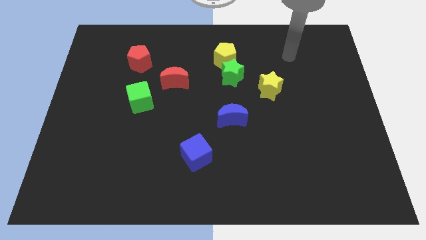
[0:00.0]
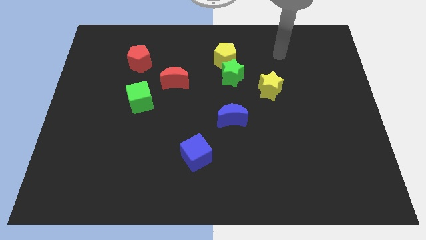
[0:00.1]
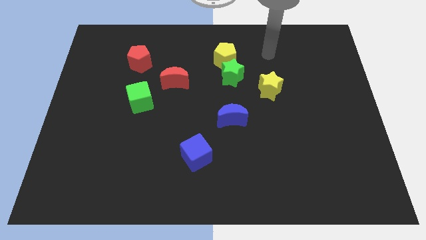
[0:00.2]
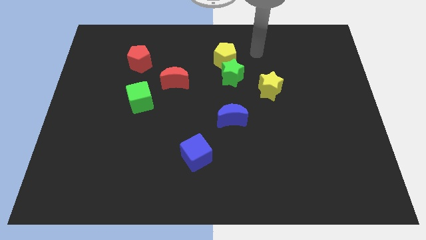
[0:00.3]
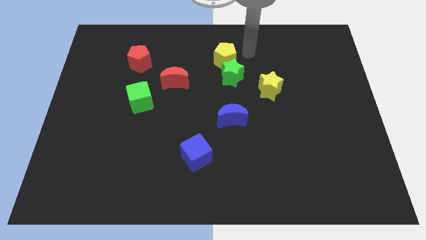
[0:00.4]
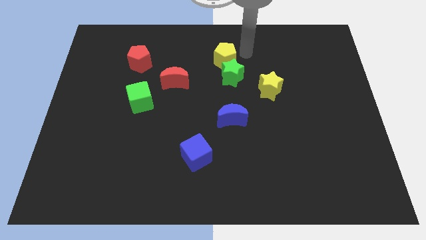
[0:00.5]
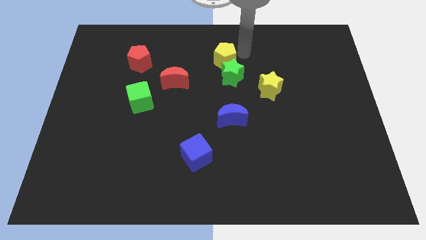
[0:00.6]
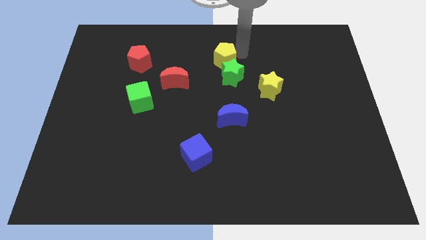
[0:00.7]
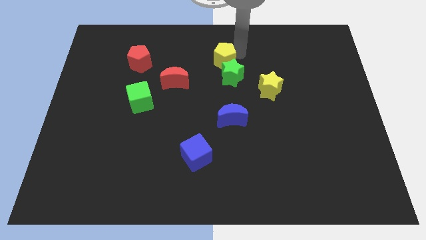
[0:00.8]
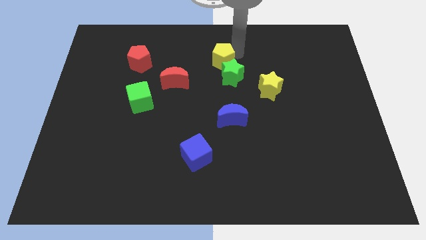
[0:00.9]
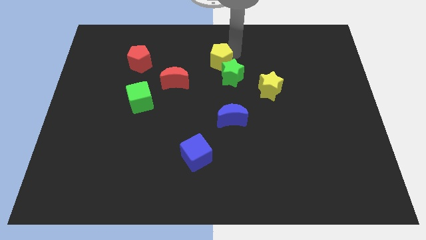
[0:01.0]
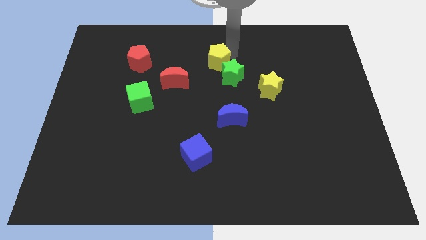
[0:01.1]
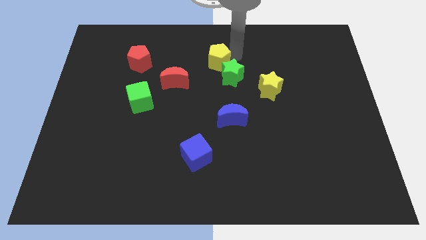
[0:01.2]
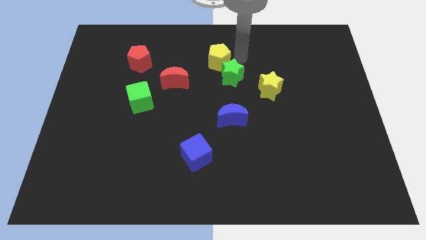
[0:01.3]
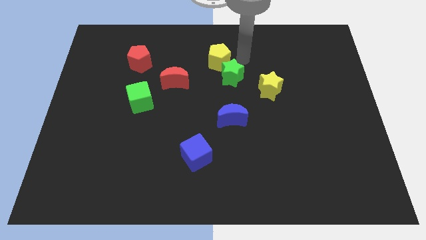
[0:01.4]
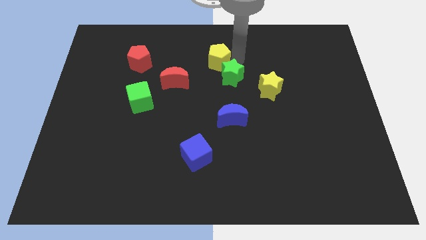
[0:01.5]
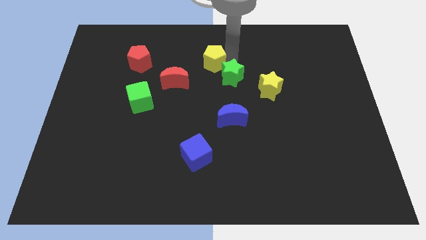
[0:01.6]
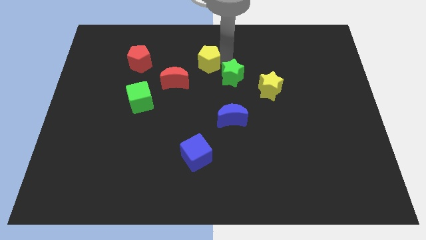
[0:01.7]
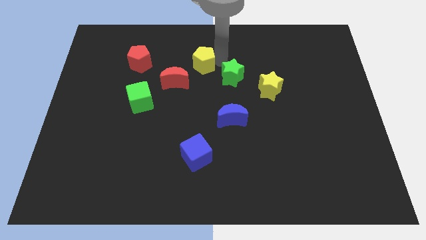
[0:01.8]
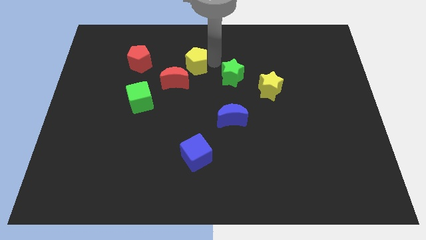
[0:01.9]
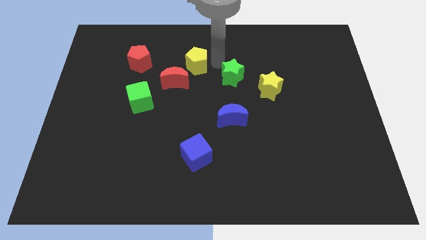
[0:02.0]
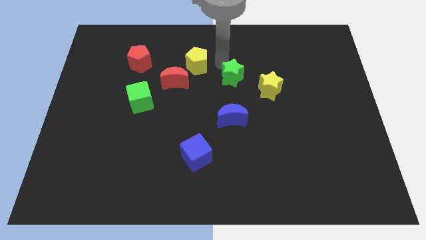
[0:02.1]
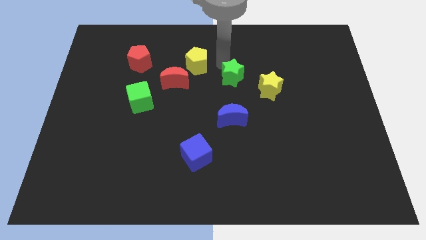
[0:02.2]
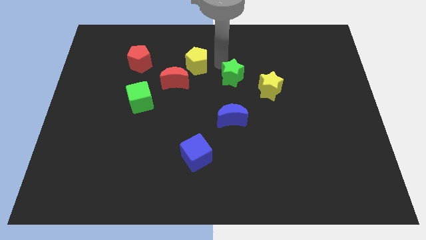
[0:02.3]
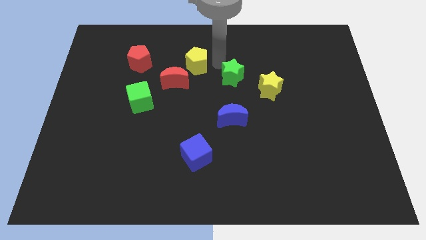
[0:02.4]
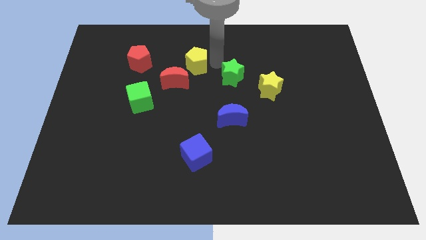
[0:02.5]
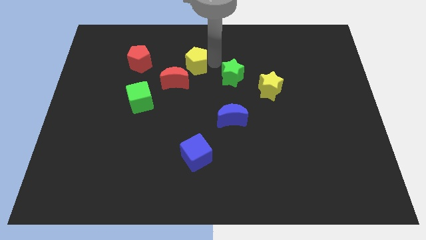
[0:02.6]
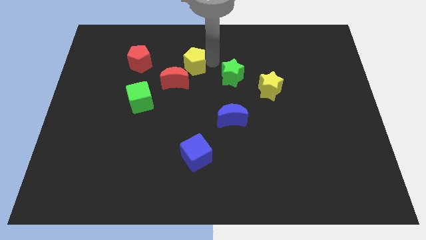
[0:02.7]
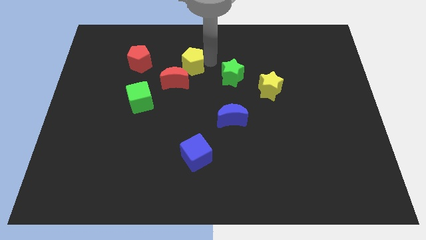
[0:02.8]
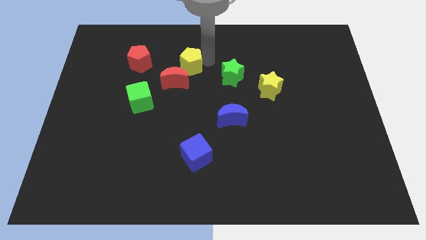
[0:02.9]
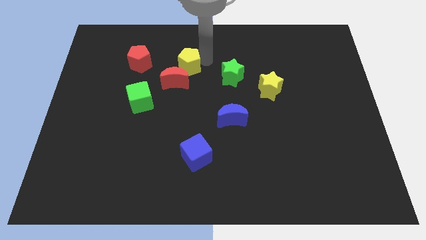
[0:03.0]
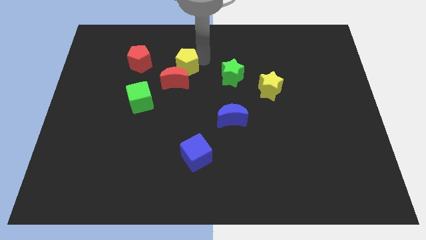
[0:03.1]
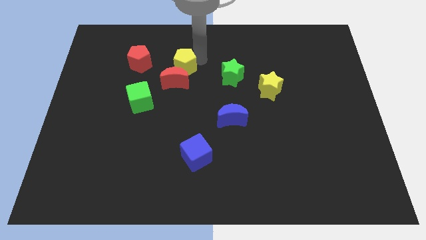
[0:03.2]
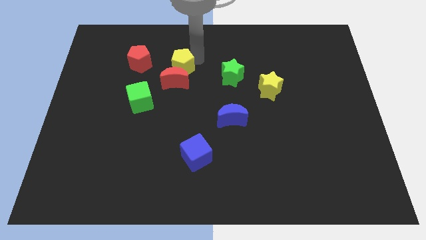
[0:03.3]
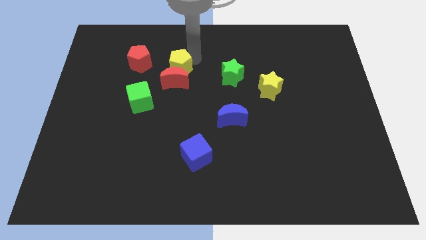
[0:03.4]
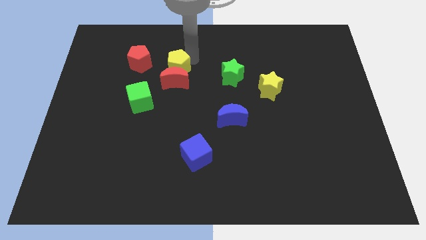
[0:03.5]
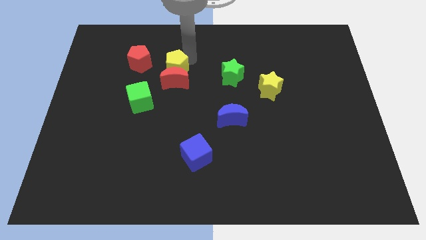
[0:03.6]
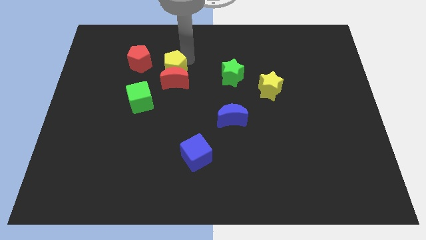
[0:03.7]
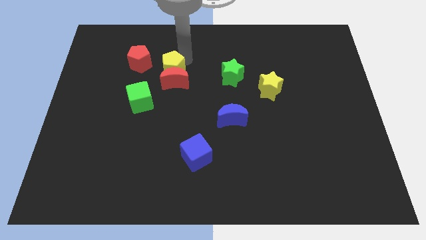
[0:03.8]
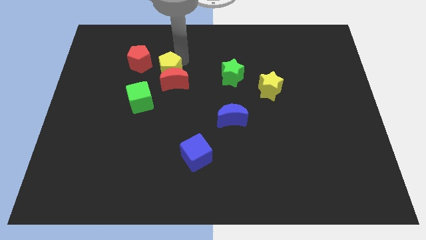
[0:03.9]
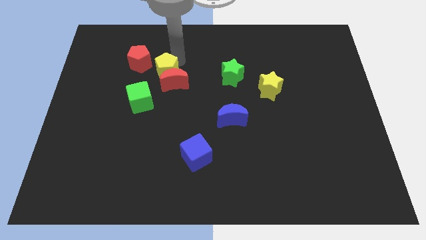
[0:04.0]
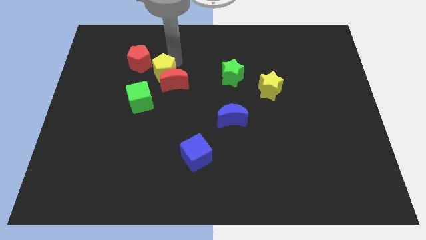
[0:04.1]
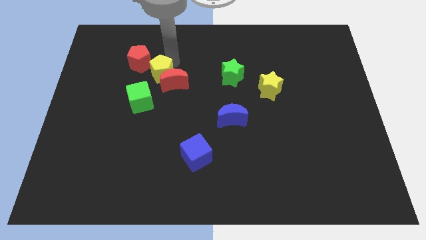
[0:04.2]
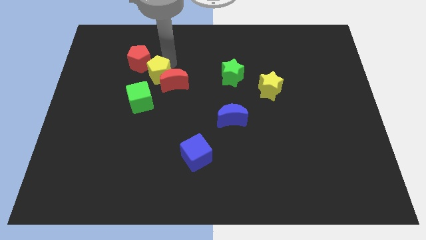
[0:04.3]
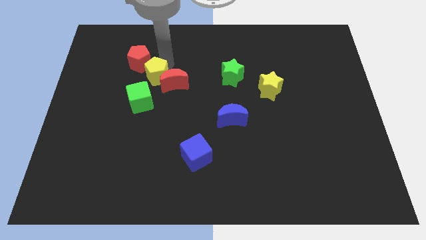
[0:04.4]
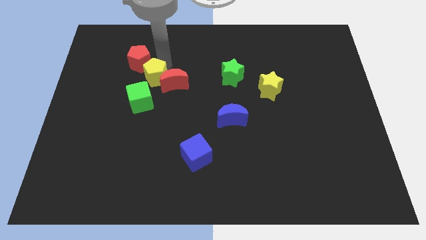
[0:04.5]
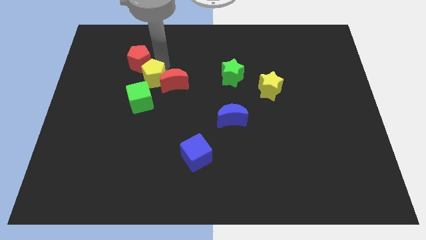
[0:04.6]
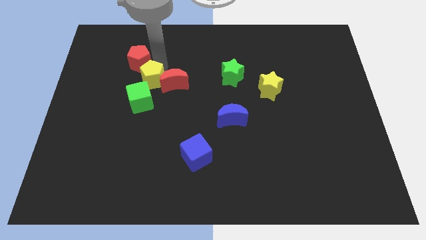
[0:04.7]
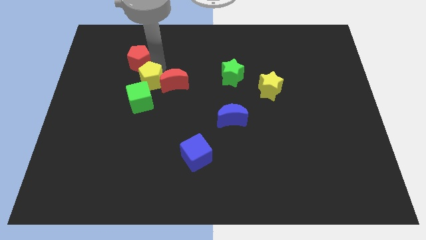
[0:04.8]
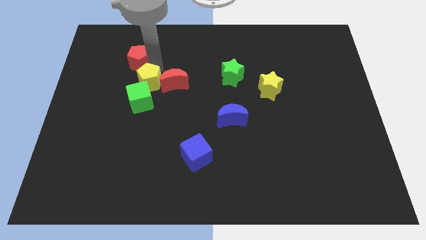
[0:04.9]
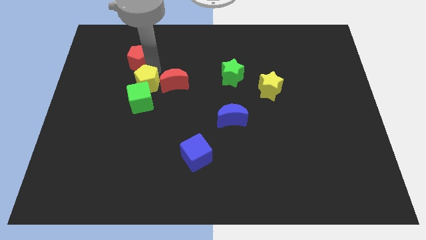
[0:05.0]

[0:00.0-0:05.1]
put the yellow pentagon towards the green cube

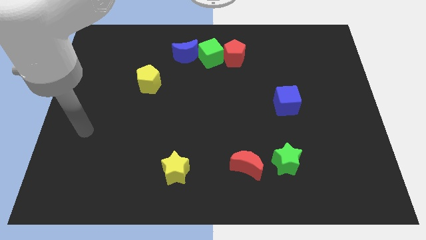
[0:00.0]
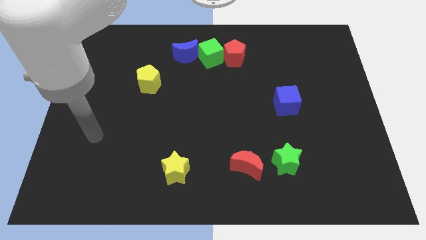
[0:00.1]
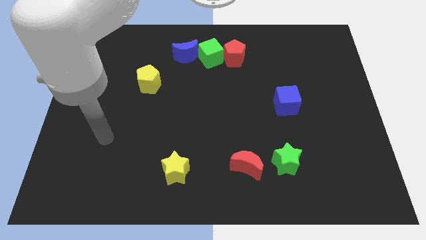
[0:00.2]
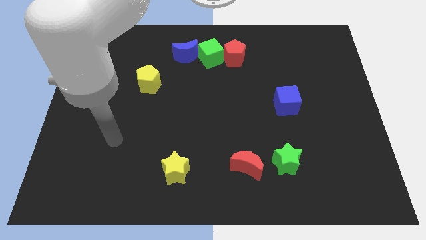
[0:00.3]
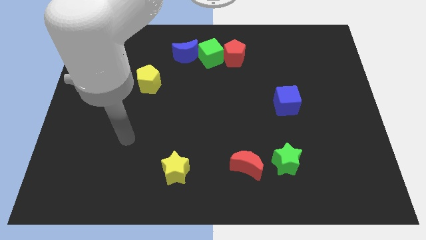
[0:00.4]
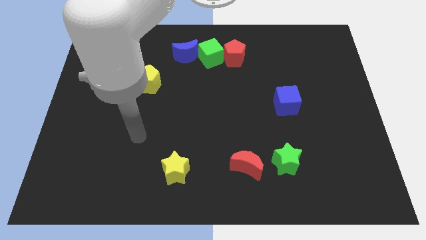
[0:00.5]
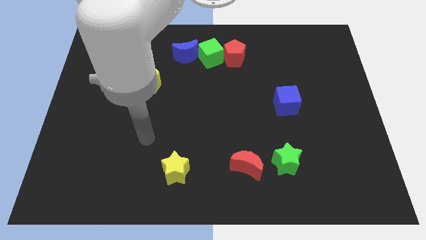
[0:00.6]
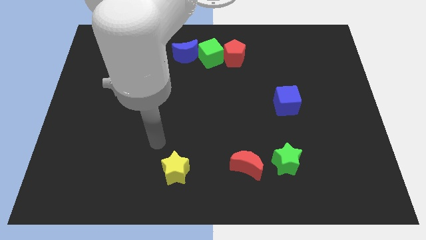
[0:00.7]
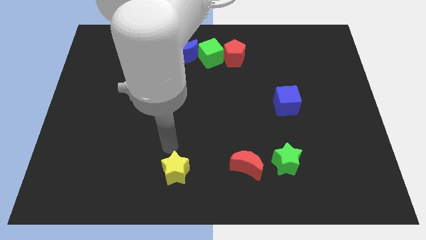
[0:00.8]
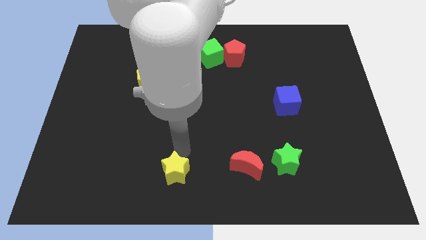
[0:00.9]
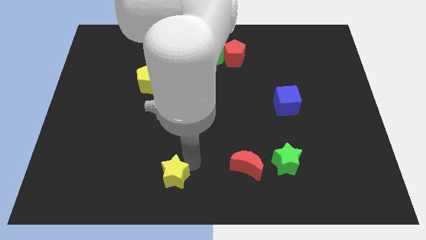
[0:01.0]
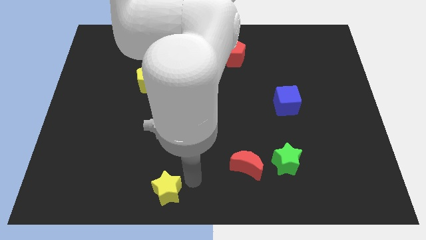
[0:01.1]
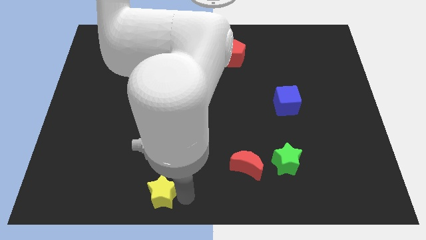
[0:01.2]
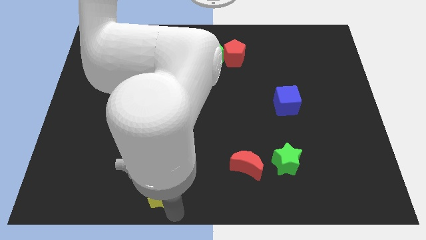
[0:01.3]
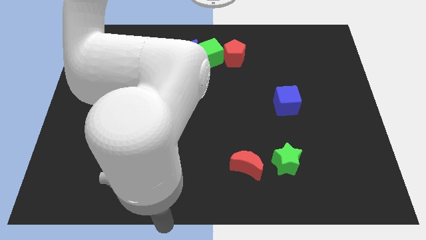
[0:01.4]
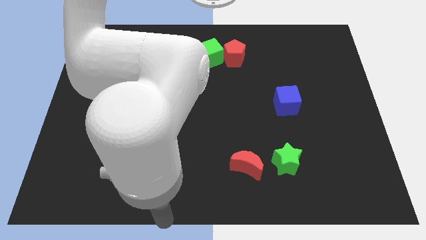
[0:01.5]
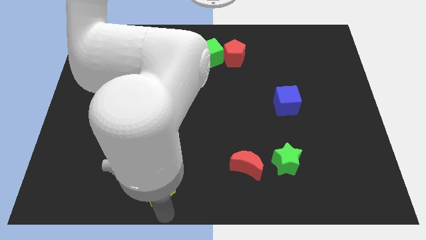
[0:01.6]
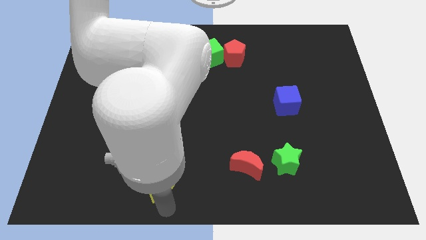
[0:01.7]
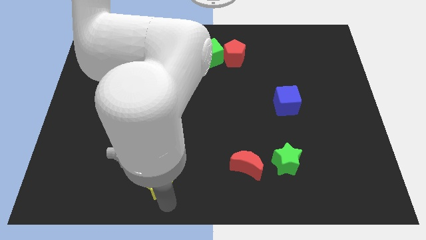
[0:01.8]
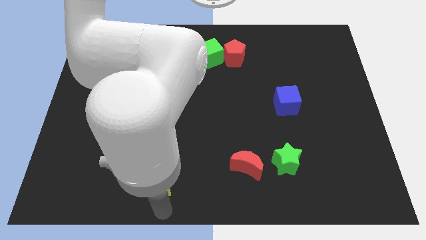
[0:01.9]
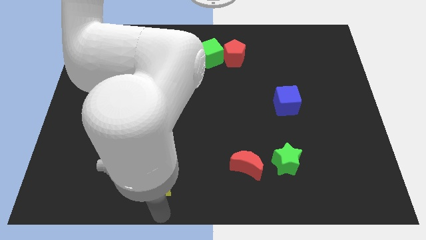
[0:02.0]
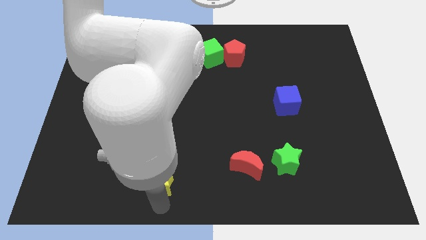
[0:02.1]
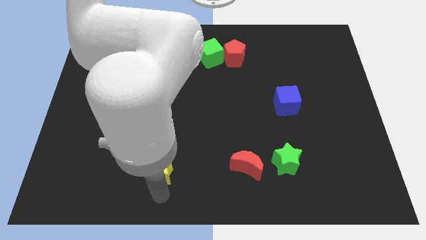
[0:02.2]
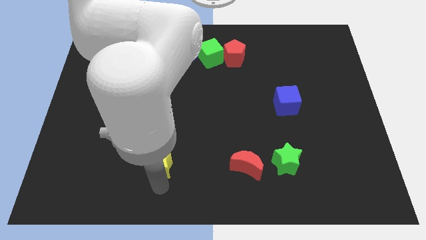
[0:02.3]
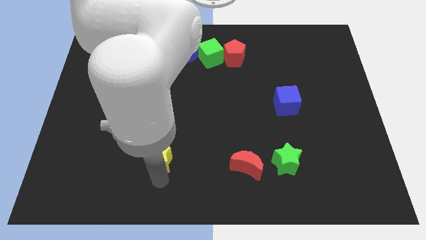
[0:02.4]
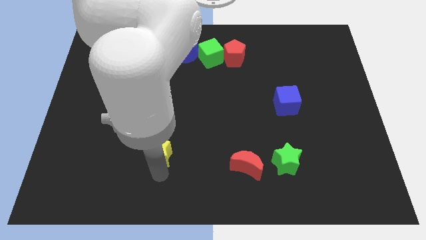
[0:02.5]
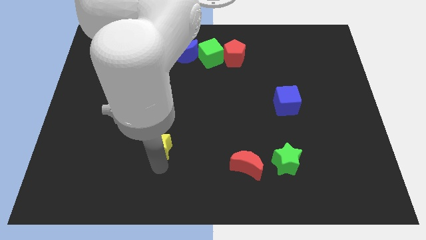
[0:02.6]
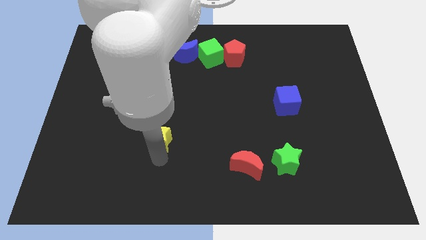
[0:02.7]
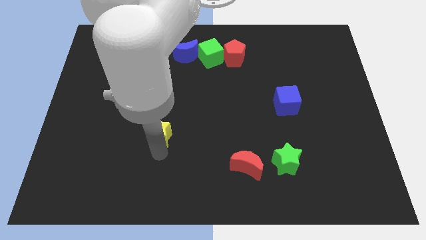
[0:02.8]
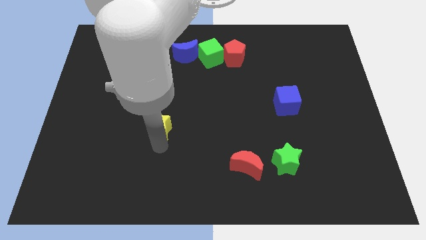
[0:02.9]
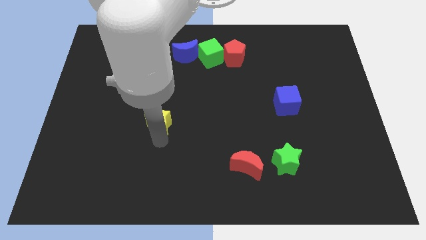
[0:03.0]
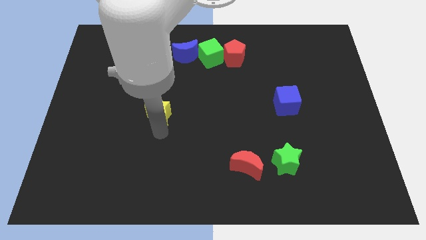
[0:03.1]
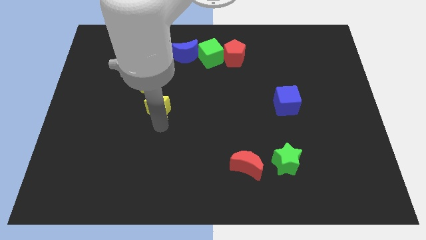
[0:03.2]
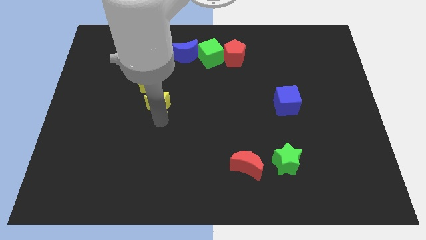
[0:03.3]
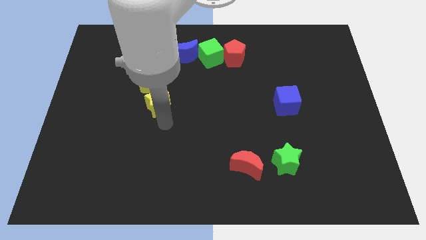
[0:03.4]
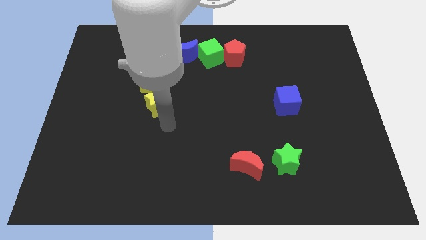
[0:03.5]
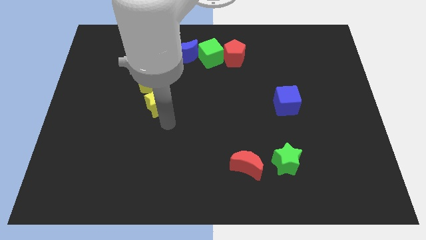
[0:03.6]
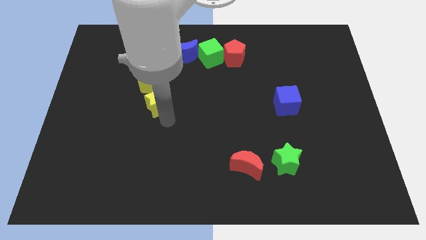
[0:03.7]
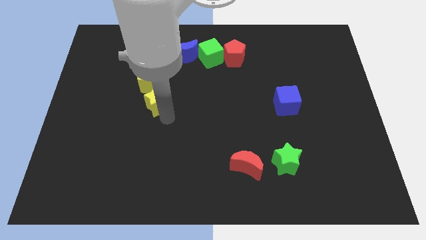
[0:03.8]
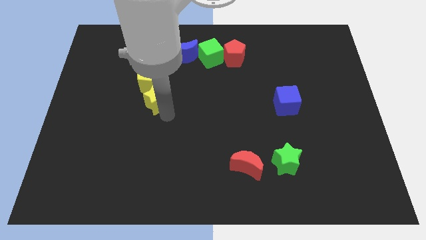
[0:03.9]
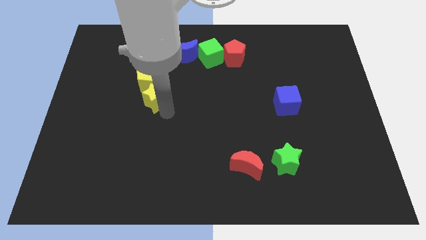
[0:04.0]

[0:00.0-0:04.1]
slide the yellow star close to the yellow pentagon
